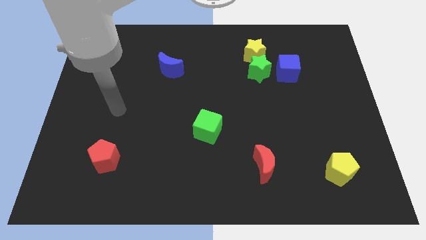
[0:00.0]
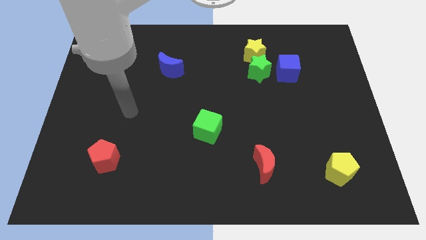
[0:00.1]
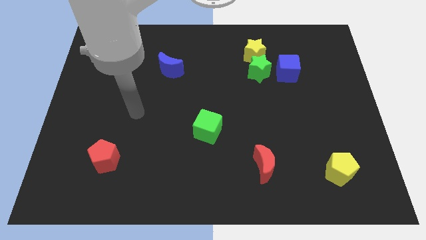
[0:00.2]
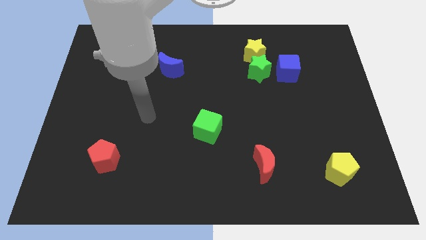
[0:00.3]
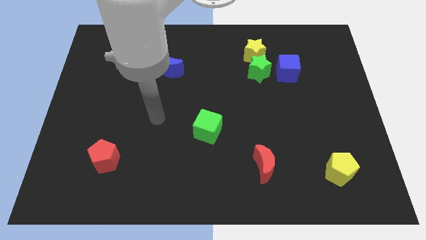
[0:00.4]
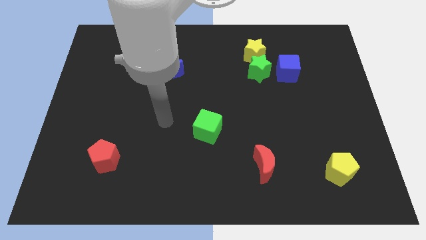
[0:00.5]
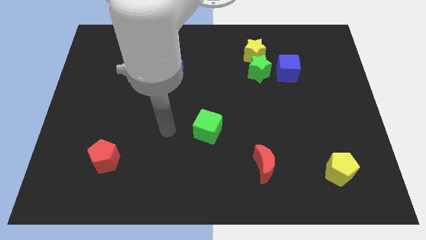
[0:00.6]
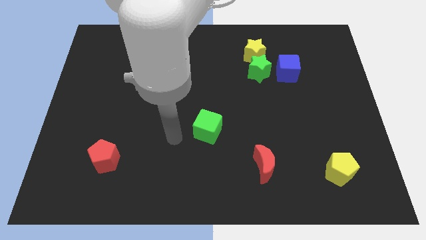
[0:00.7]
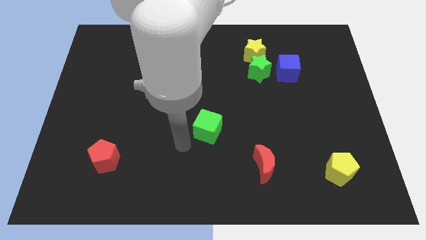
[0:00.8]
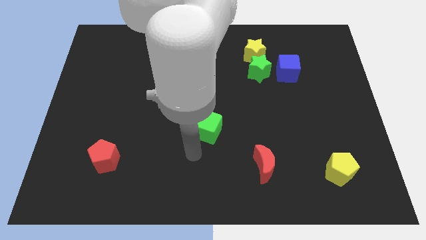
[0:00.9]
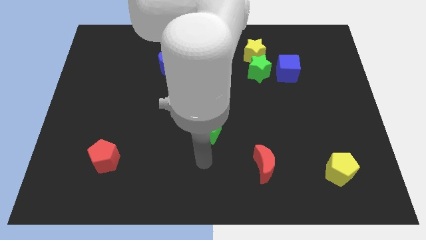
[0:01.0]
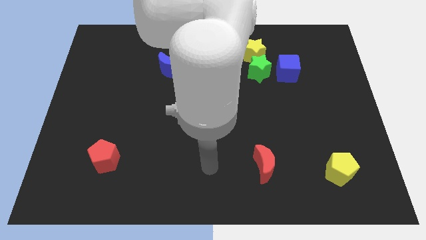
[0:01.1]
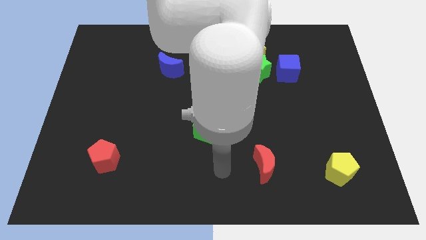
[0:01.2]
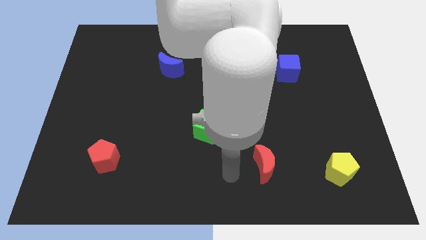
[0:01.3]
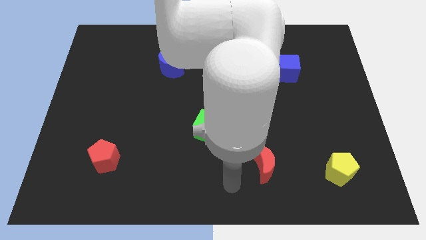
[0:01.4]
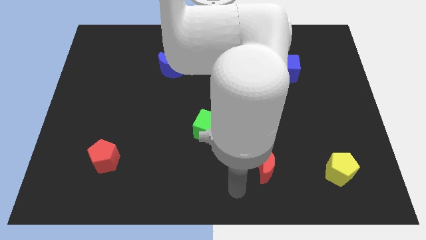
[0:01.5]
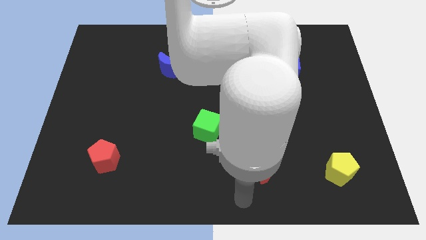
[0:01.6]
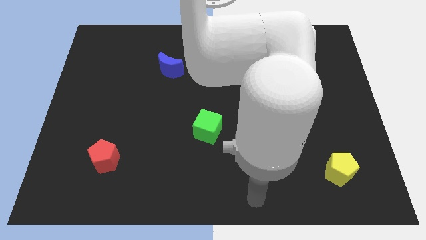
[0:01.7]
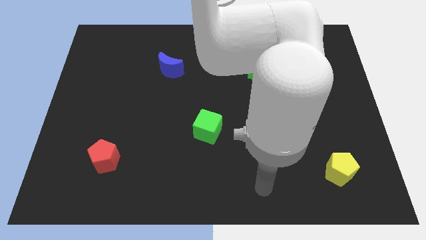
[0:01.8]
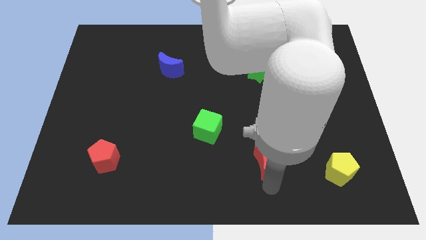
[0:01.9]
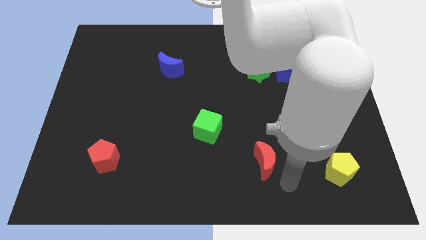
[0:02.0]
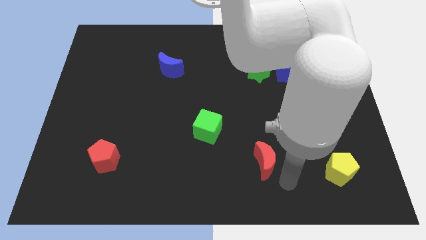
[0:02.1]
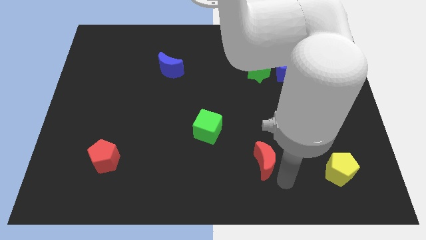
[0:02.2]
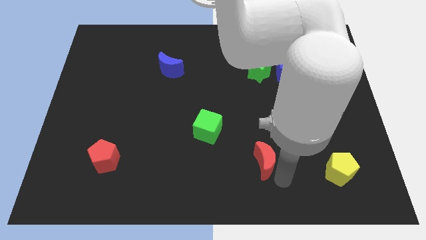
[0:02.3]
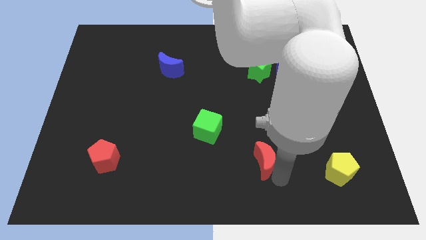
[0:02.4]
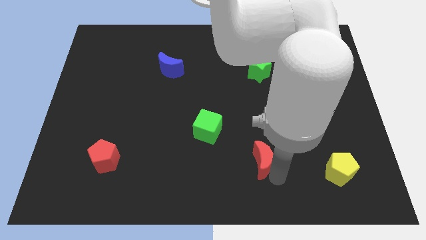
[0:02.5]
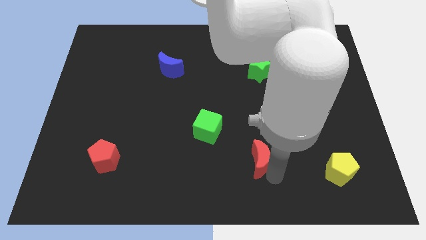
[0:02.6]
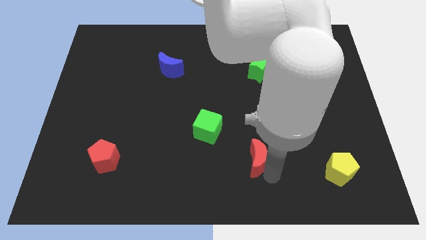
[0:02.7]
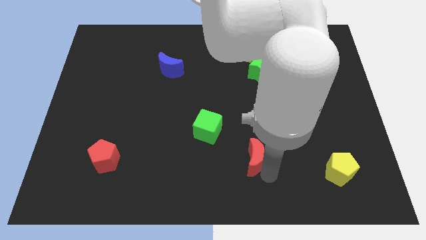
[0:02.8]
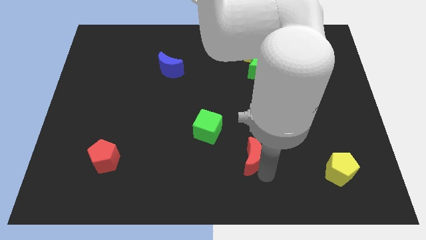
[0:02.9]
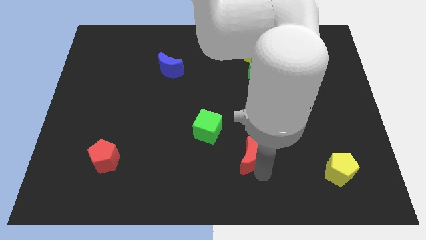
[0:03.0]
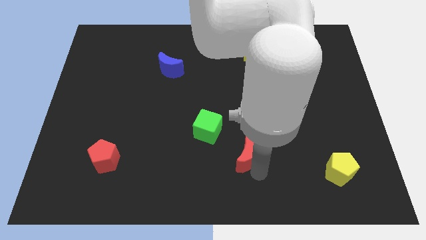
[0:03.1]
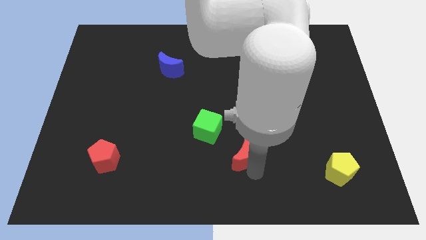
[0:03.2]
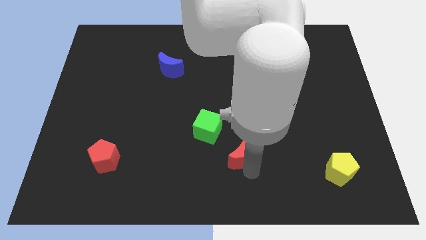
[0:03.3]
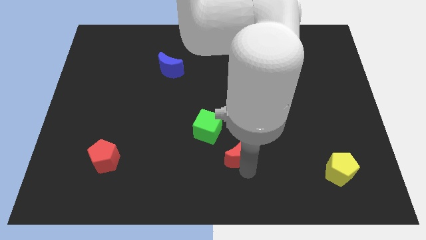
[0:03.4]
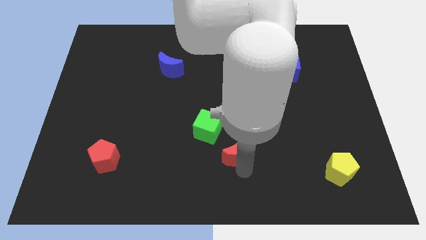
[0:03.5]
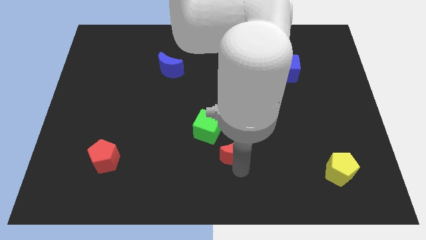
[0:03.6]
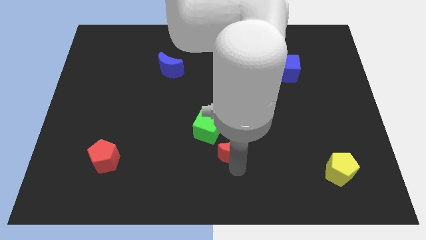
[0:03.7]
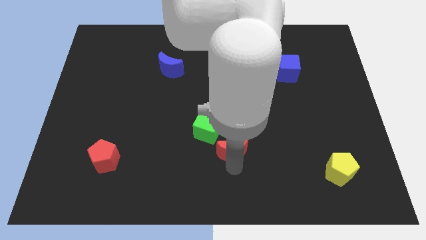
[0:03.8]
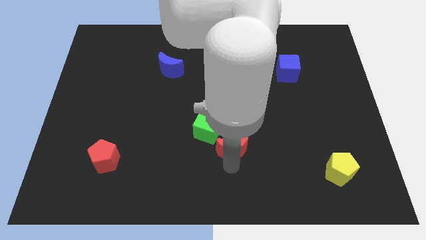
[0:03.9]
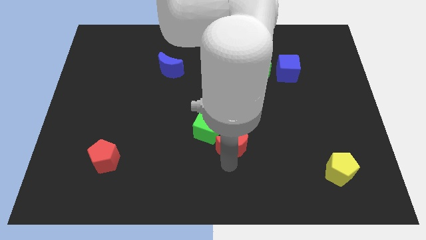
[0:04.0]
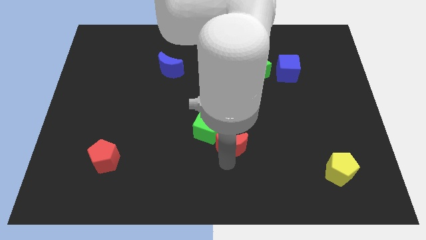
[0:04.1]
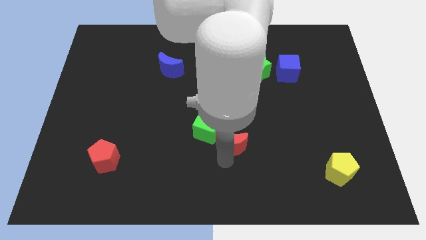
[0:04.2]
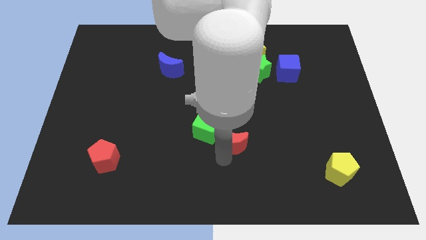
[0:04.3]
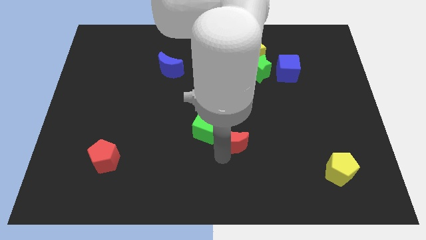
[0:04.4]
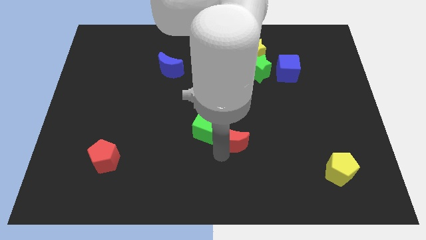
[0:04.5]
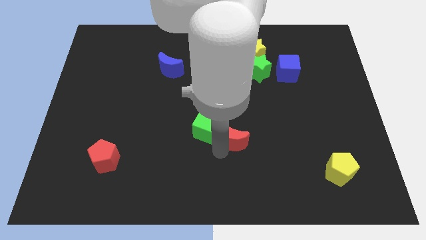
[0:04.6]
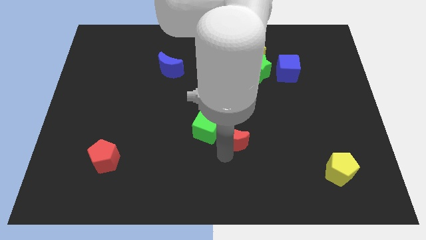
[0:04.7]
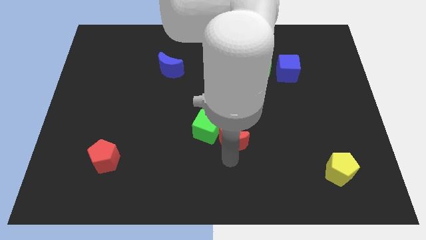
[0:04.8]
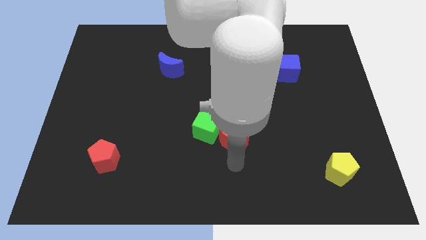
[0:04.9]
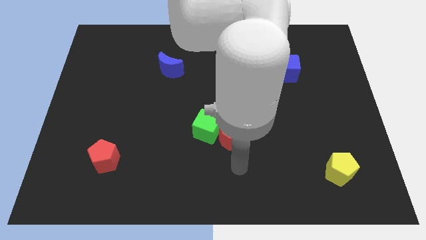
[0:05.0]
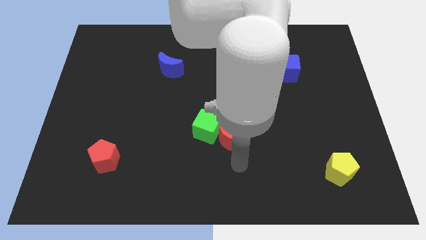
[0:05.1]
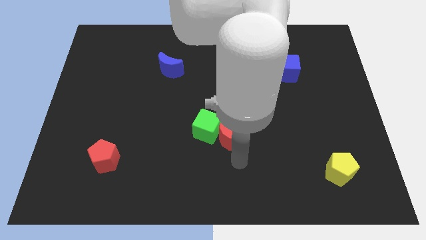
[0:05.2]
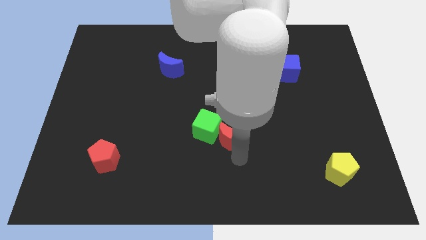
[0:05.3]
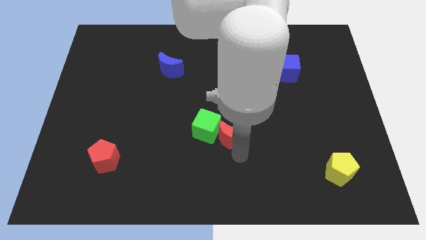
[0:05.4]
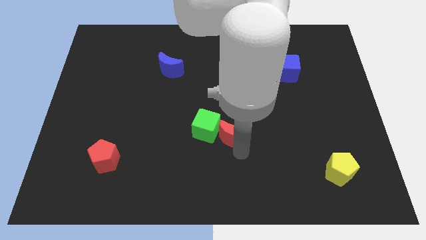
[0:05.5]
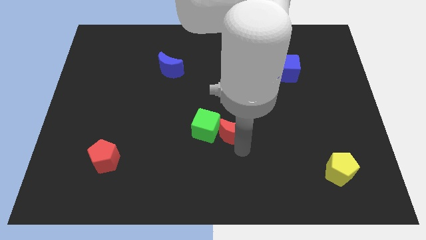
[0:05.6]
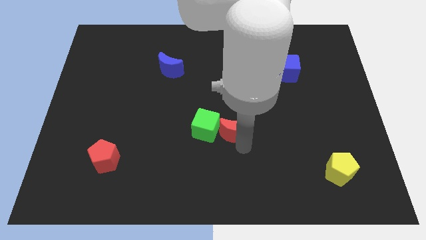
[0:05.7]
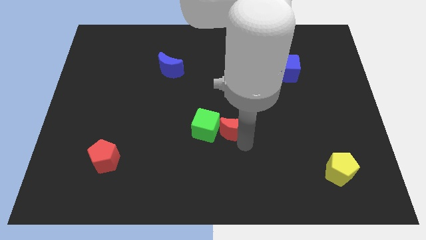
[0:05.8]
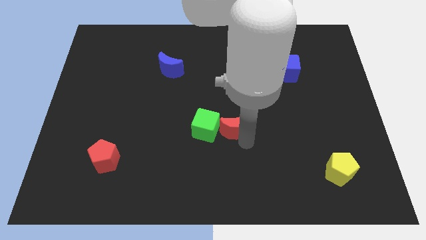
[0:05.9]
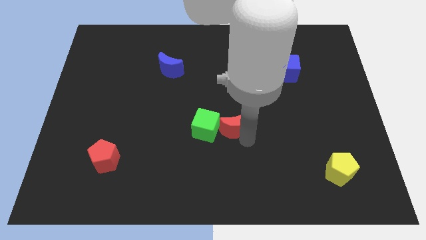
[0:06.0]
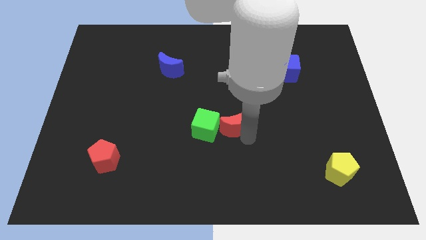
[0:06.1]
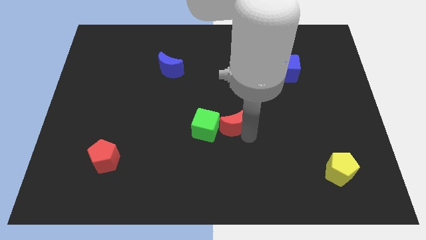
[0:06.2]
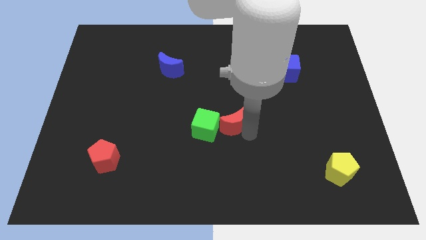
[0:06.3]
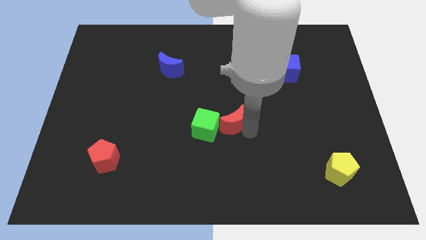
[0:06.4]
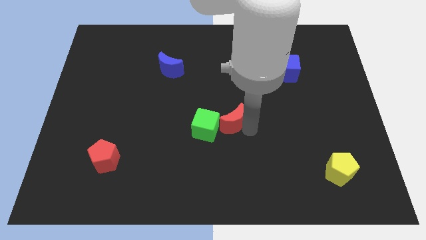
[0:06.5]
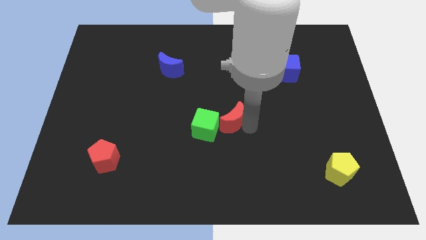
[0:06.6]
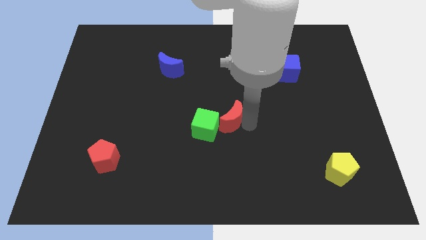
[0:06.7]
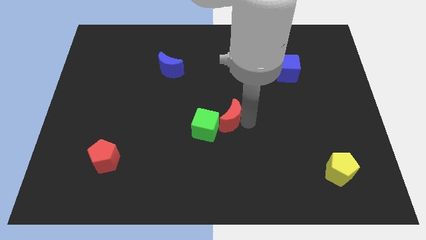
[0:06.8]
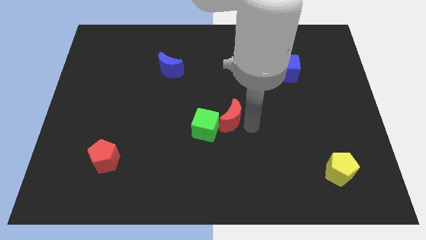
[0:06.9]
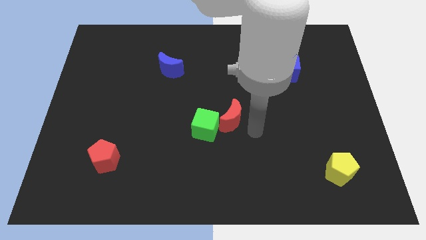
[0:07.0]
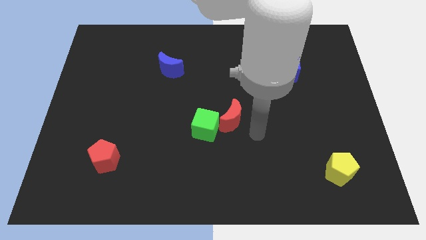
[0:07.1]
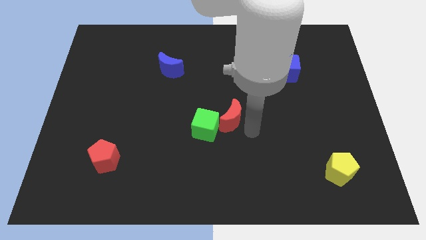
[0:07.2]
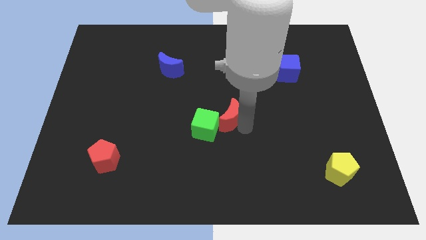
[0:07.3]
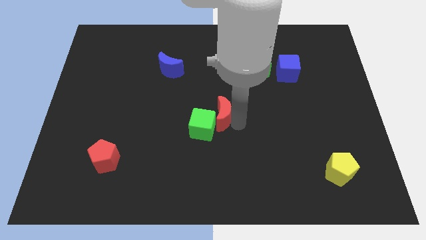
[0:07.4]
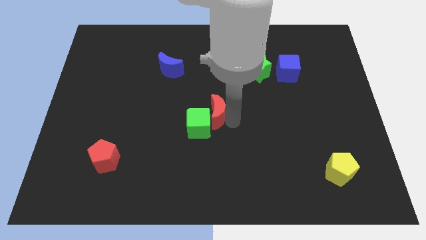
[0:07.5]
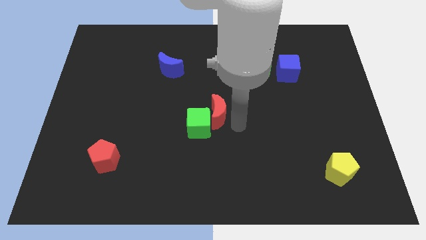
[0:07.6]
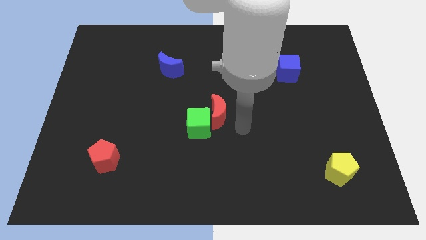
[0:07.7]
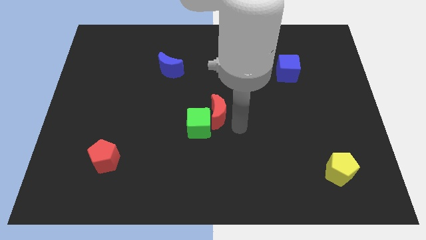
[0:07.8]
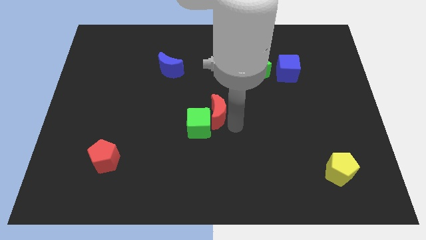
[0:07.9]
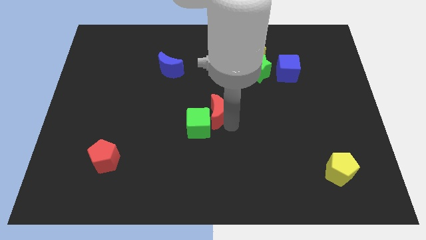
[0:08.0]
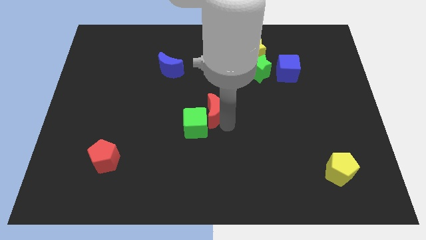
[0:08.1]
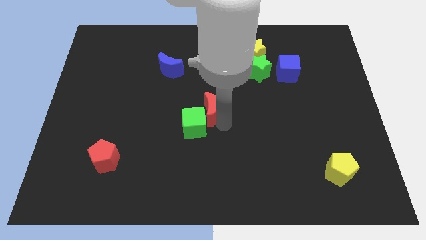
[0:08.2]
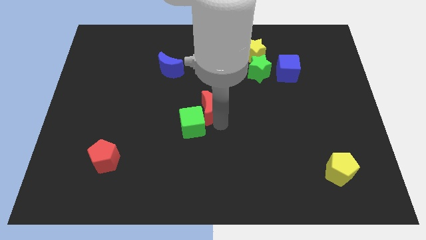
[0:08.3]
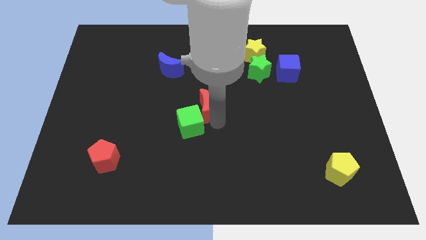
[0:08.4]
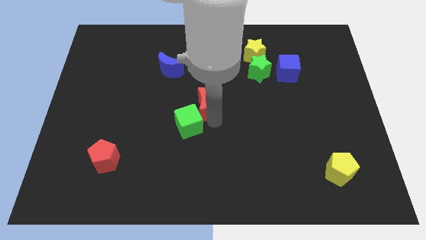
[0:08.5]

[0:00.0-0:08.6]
push the red moon upwards and left
